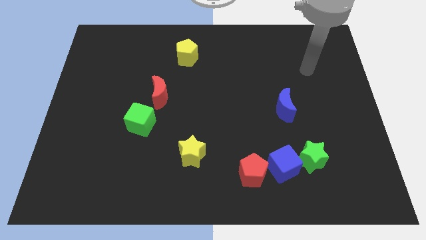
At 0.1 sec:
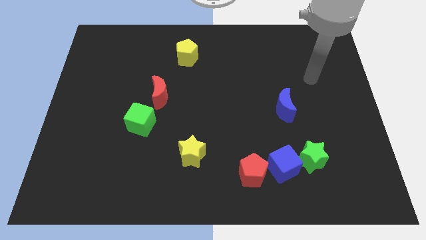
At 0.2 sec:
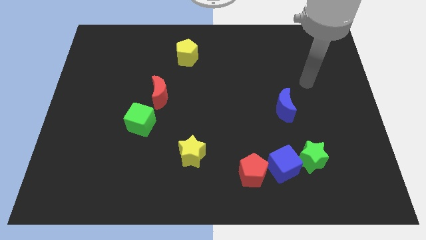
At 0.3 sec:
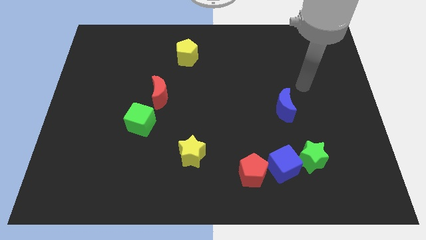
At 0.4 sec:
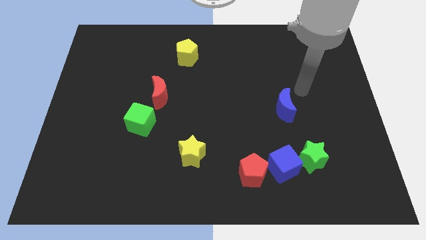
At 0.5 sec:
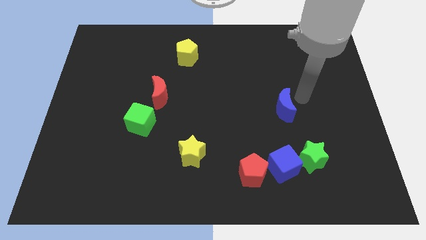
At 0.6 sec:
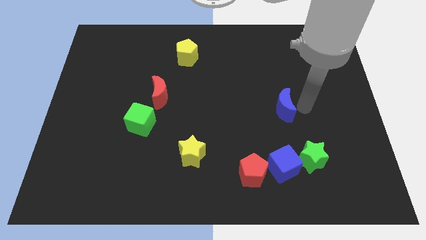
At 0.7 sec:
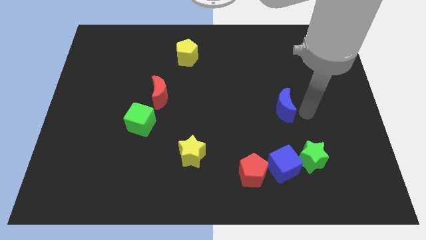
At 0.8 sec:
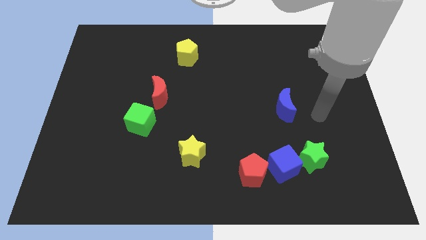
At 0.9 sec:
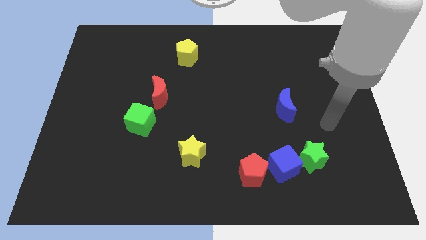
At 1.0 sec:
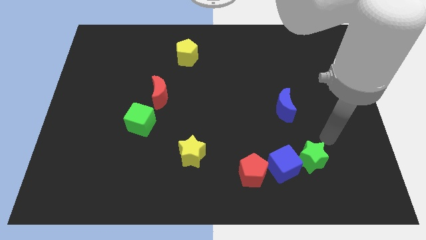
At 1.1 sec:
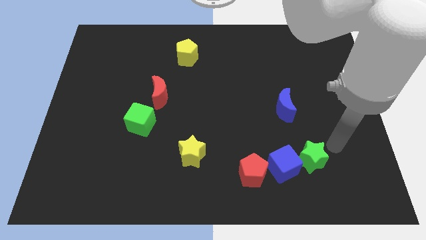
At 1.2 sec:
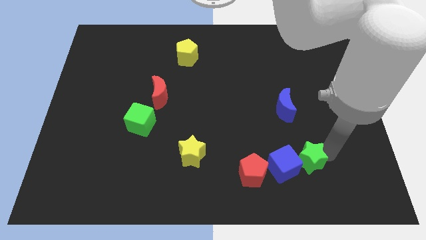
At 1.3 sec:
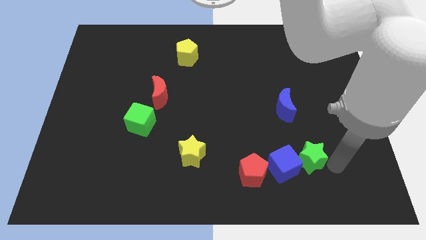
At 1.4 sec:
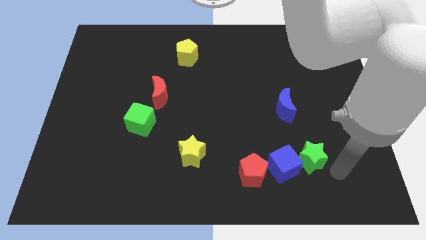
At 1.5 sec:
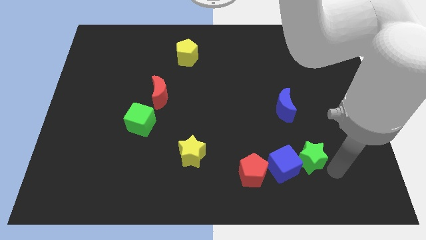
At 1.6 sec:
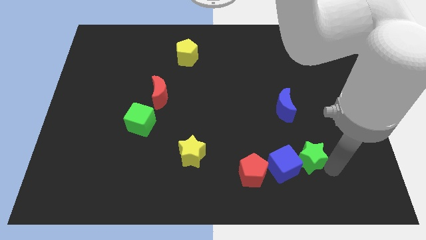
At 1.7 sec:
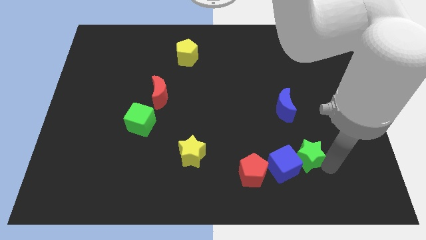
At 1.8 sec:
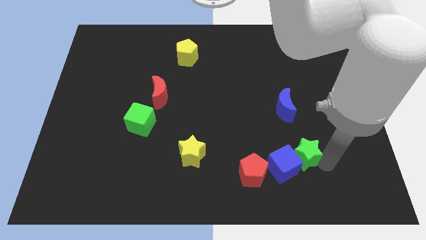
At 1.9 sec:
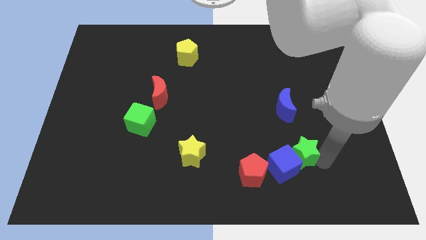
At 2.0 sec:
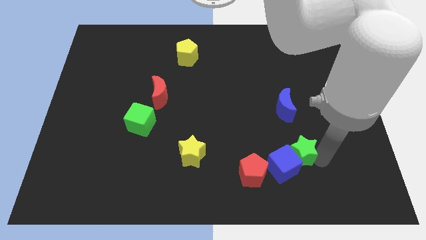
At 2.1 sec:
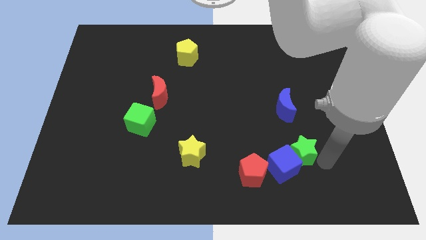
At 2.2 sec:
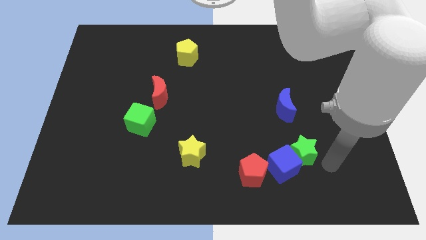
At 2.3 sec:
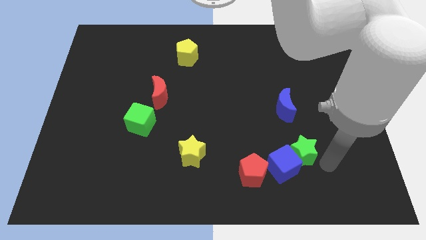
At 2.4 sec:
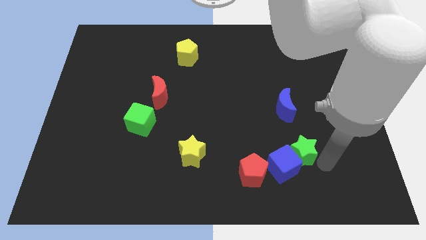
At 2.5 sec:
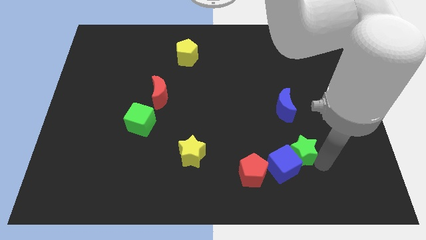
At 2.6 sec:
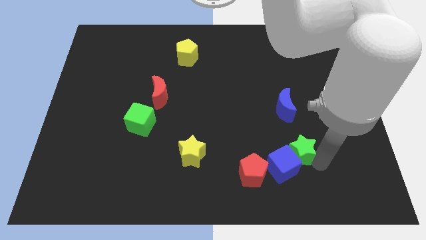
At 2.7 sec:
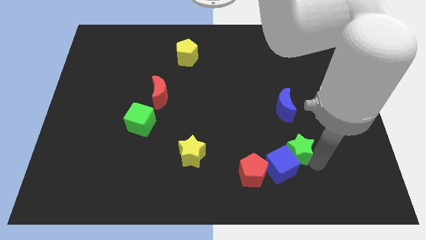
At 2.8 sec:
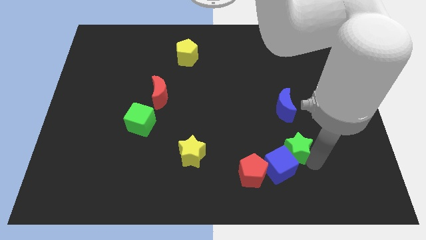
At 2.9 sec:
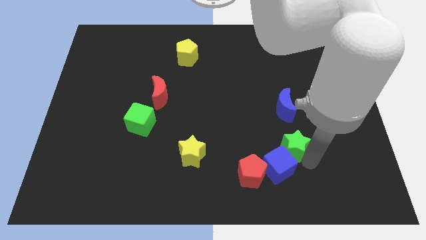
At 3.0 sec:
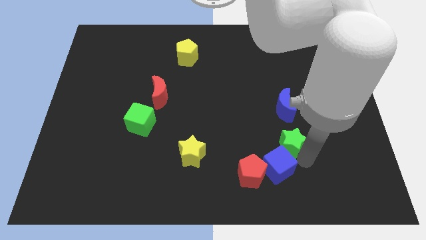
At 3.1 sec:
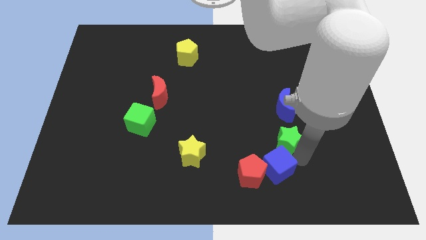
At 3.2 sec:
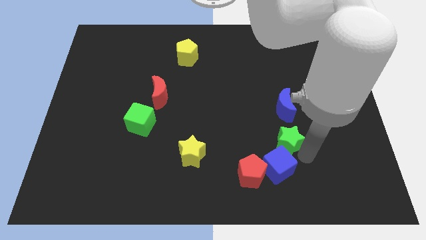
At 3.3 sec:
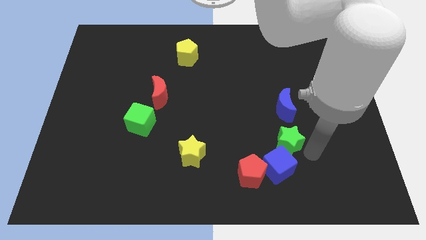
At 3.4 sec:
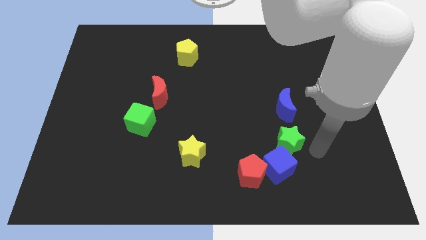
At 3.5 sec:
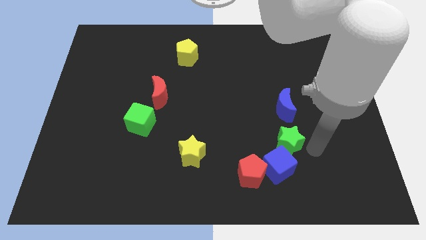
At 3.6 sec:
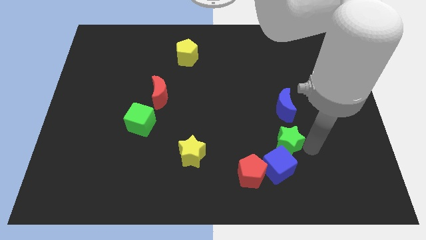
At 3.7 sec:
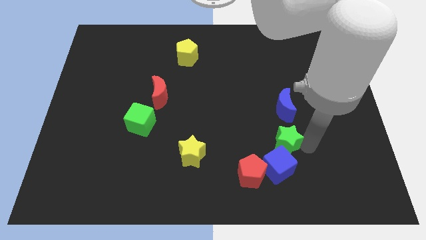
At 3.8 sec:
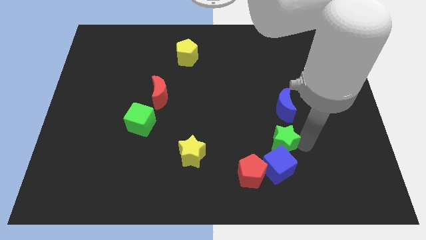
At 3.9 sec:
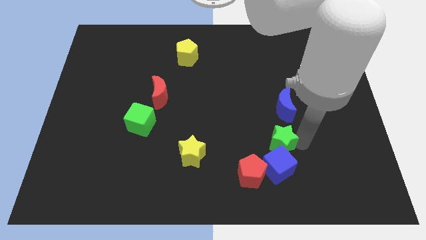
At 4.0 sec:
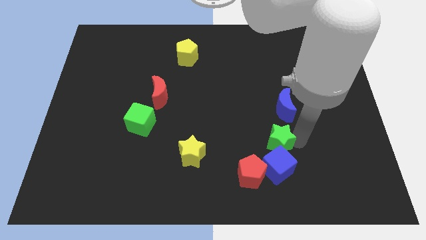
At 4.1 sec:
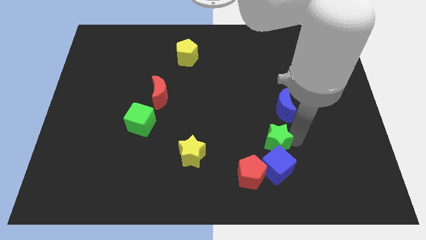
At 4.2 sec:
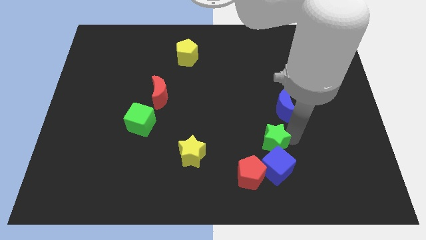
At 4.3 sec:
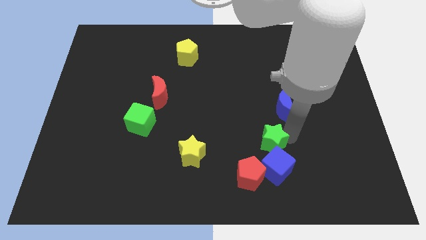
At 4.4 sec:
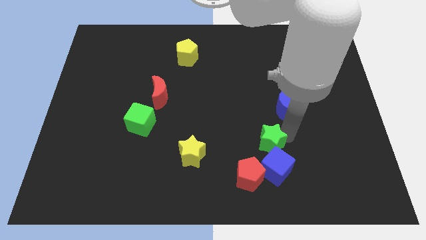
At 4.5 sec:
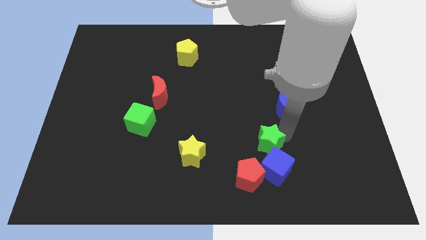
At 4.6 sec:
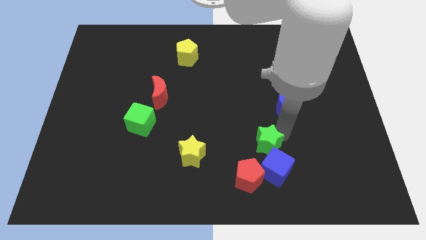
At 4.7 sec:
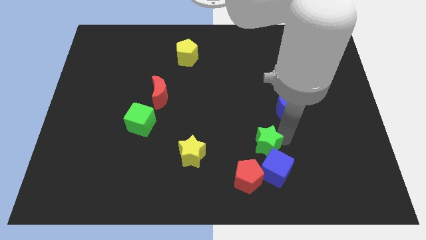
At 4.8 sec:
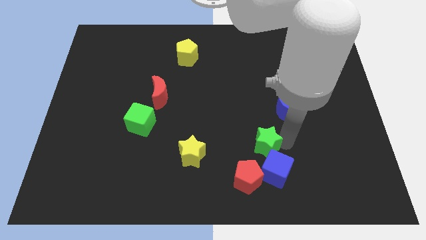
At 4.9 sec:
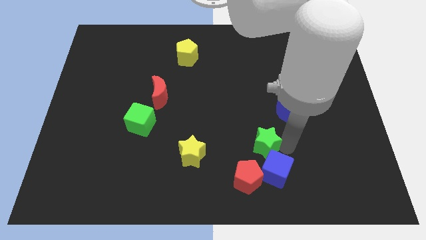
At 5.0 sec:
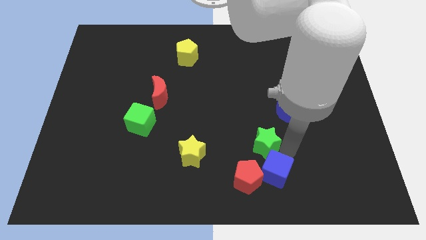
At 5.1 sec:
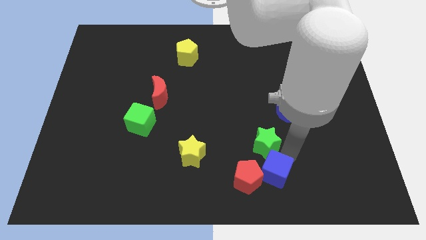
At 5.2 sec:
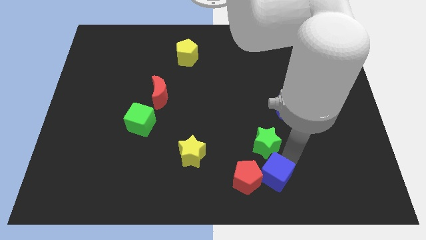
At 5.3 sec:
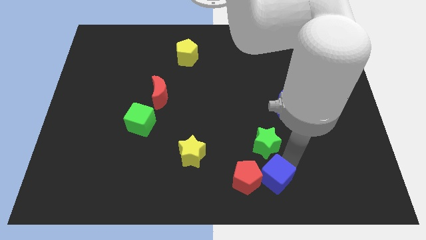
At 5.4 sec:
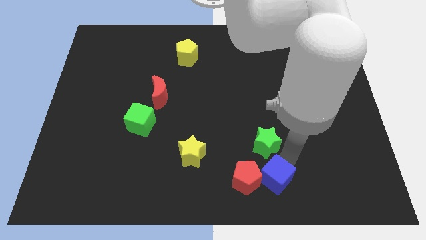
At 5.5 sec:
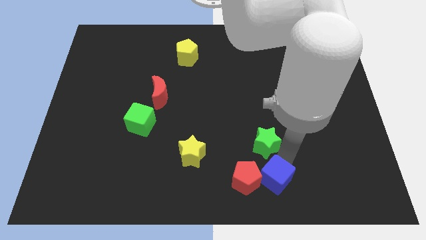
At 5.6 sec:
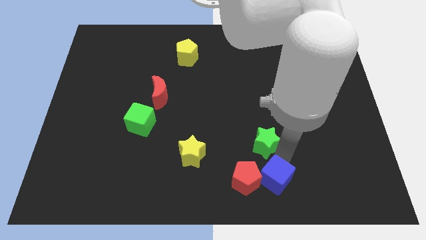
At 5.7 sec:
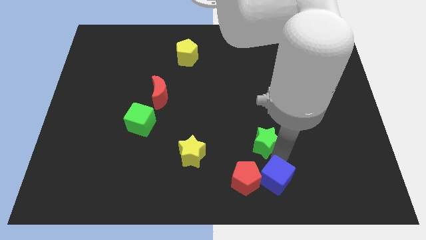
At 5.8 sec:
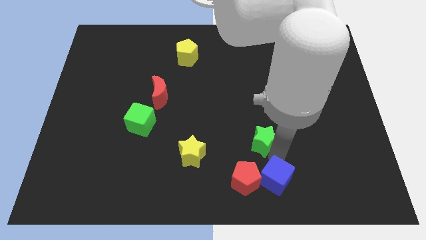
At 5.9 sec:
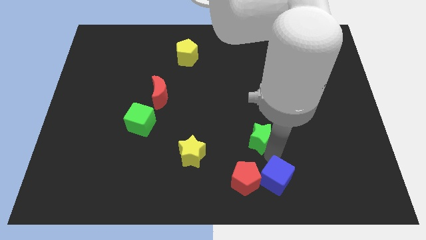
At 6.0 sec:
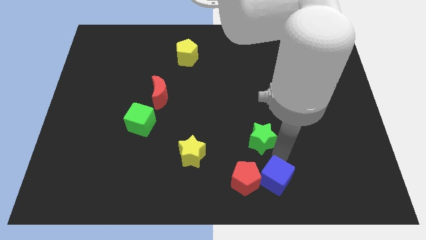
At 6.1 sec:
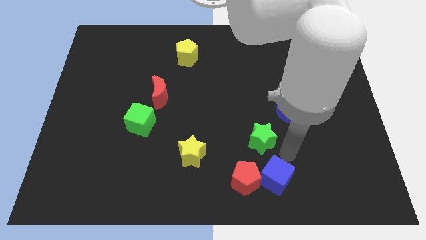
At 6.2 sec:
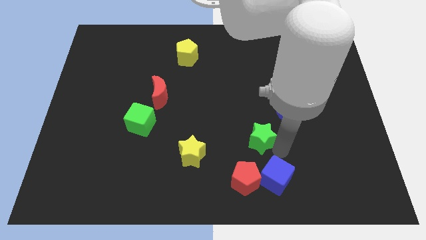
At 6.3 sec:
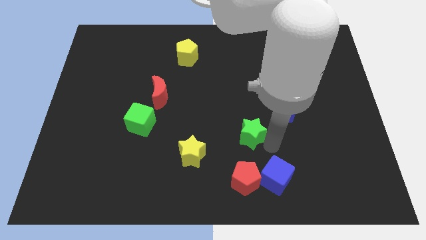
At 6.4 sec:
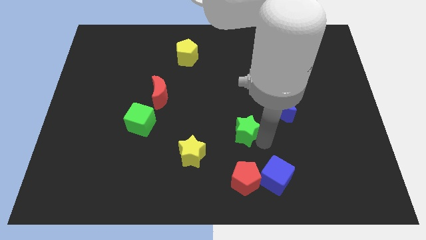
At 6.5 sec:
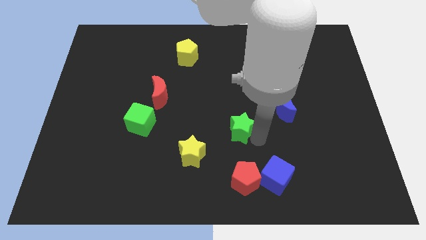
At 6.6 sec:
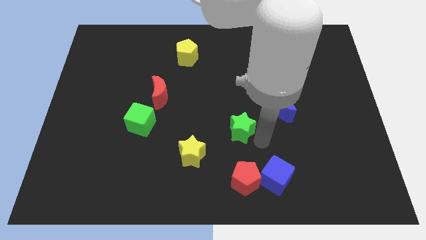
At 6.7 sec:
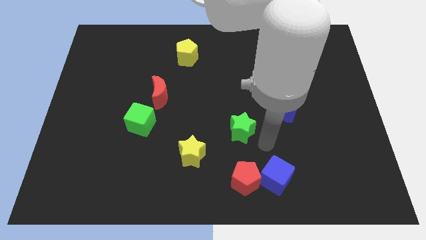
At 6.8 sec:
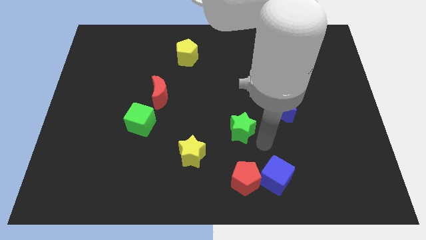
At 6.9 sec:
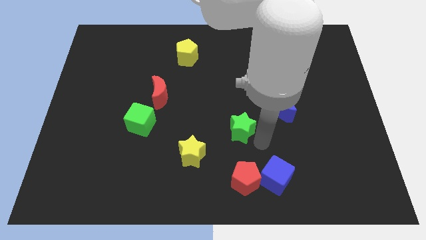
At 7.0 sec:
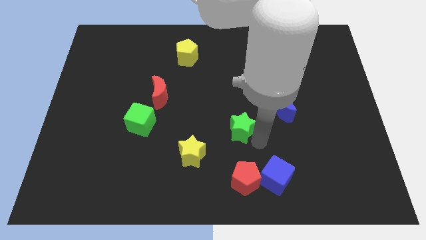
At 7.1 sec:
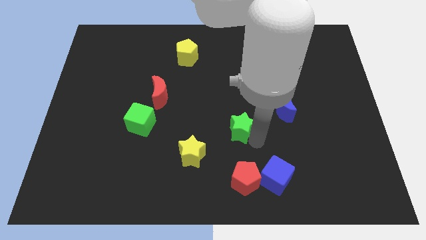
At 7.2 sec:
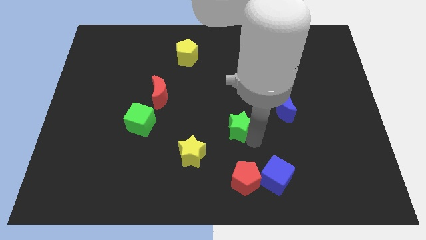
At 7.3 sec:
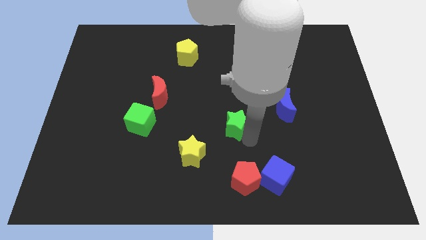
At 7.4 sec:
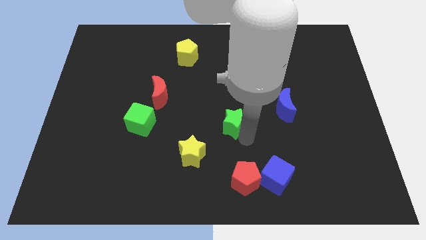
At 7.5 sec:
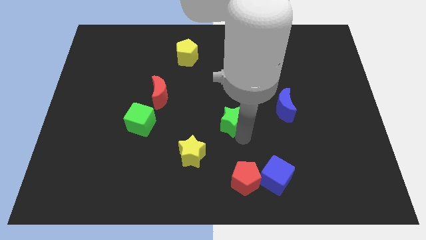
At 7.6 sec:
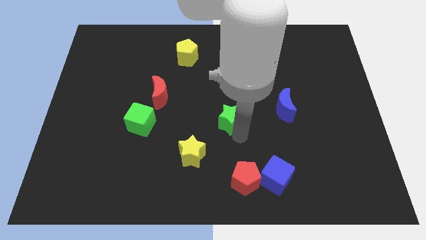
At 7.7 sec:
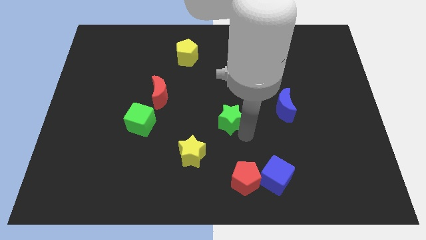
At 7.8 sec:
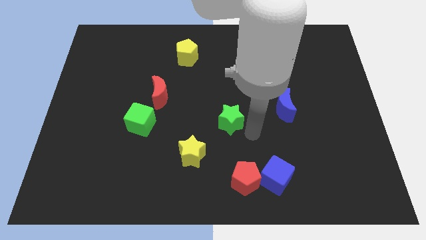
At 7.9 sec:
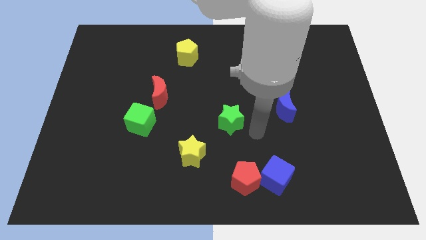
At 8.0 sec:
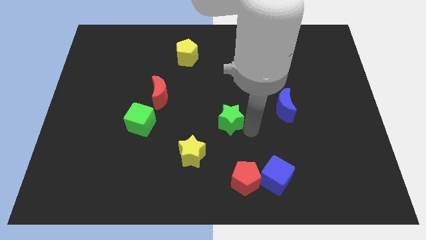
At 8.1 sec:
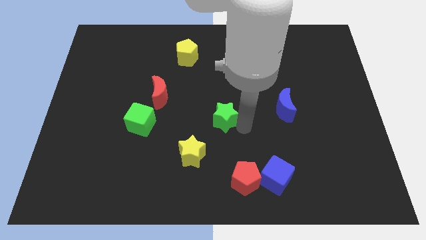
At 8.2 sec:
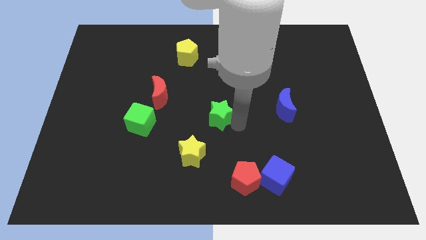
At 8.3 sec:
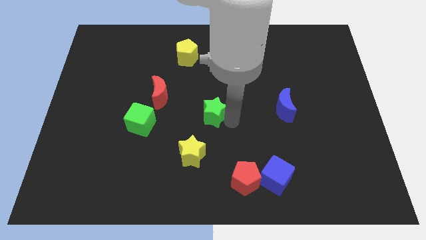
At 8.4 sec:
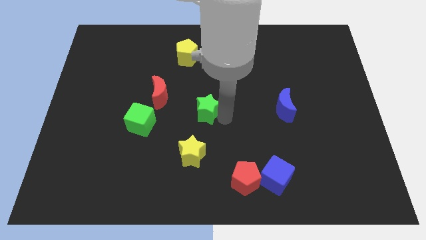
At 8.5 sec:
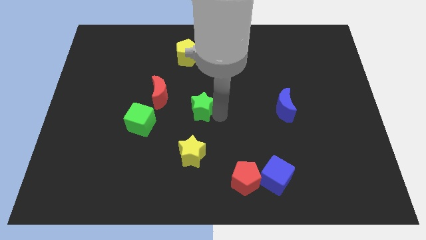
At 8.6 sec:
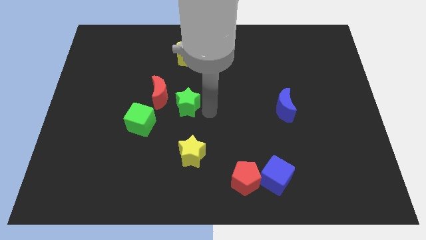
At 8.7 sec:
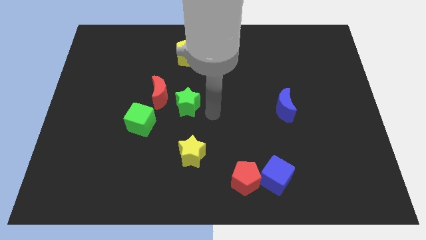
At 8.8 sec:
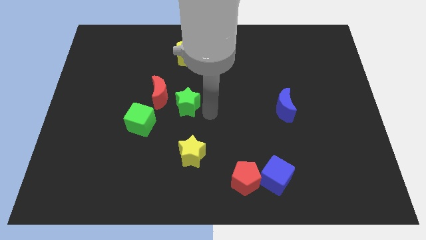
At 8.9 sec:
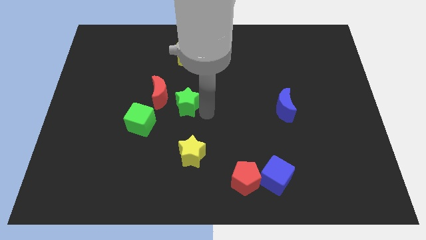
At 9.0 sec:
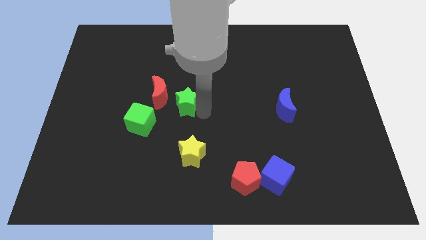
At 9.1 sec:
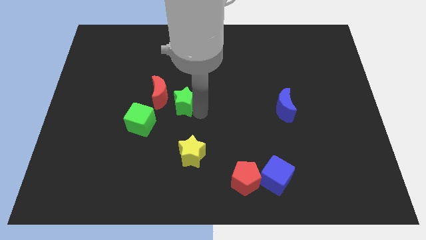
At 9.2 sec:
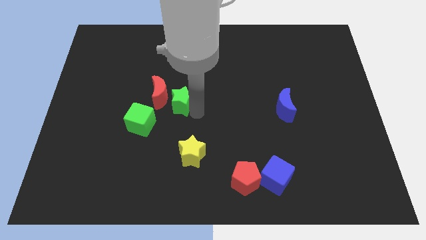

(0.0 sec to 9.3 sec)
put the green star next to the red moon
